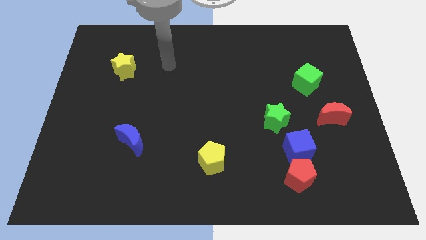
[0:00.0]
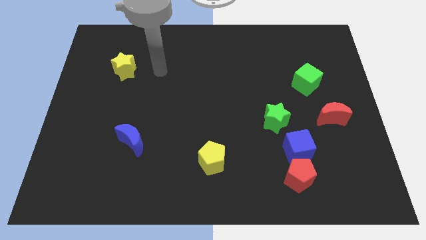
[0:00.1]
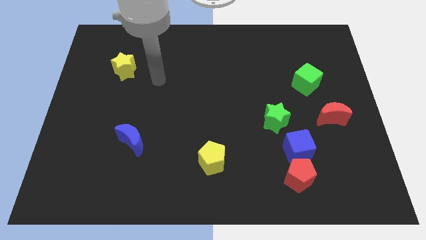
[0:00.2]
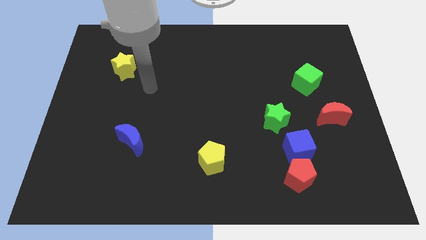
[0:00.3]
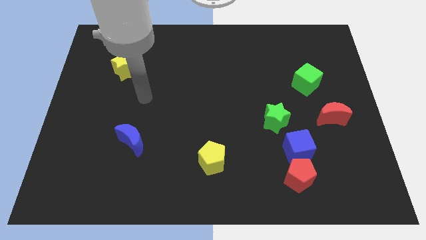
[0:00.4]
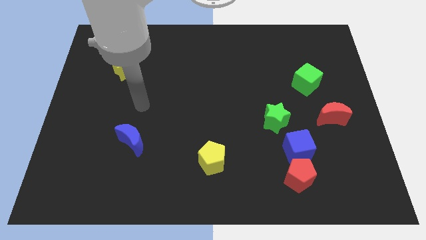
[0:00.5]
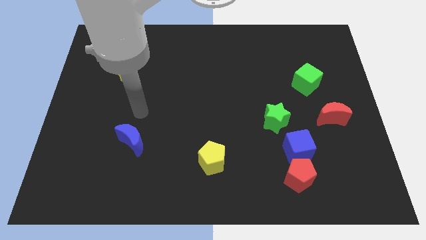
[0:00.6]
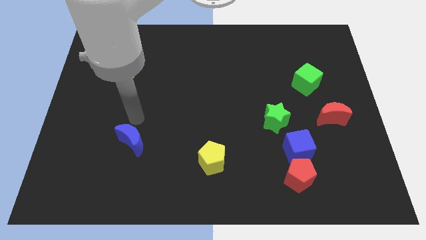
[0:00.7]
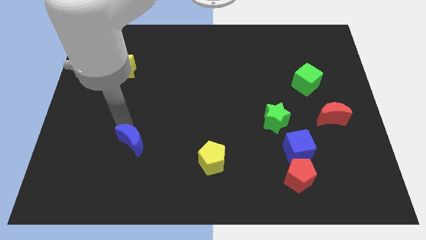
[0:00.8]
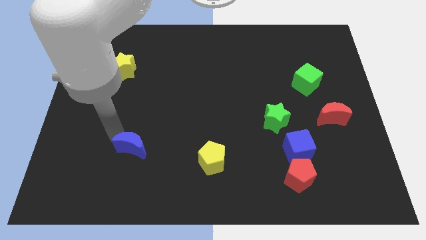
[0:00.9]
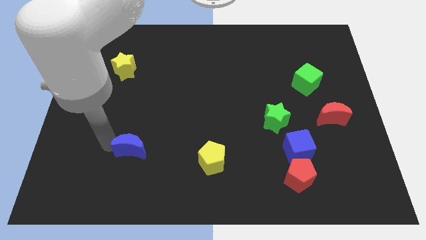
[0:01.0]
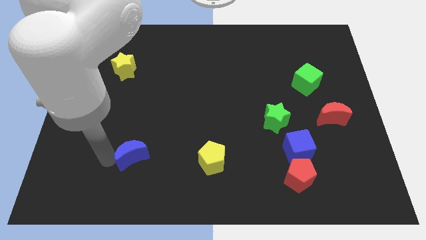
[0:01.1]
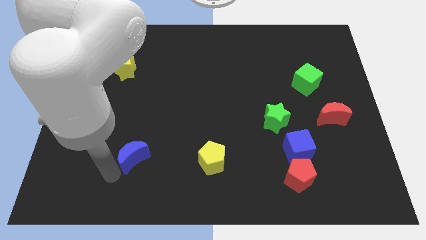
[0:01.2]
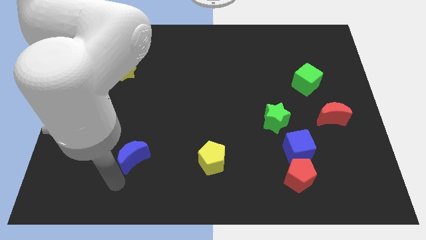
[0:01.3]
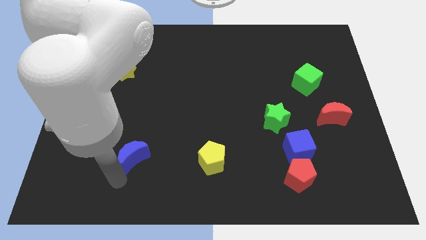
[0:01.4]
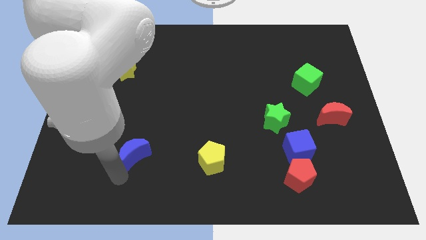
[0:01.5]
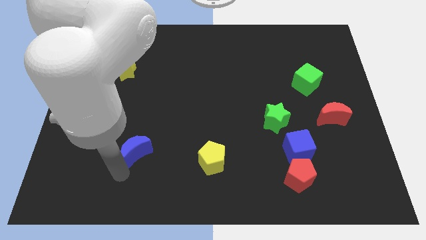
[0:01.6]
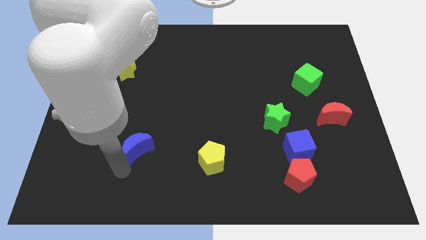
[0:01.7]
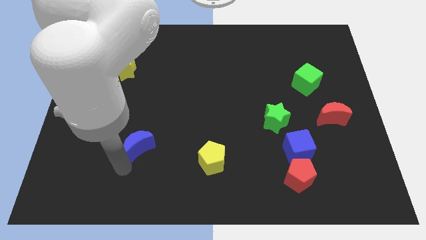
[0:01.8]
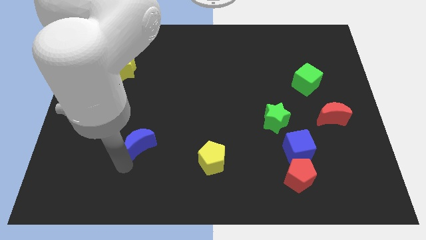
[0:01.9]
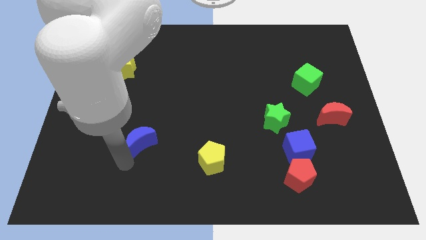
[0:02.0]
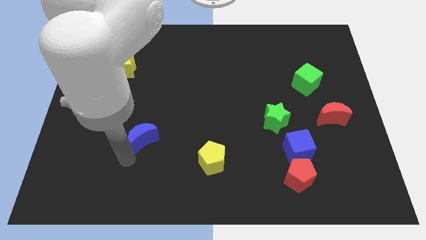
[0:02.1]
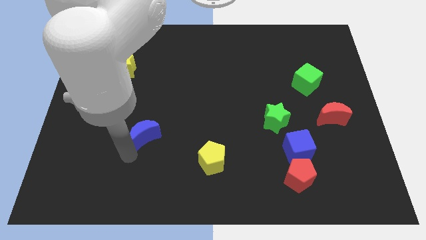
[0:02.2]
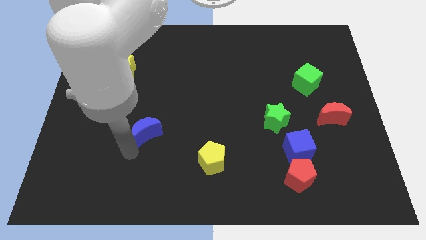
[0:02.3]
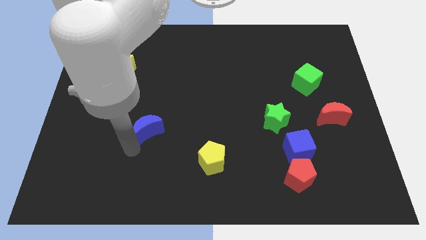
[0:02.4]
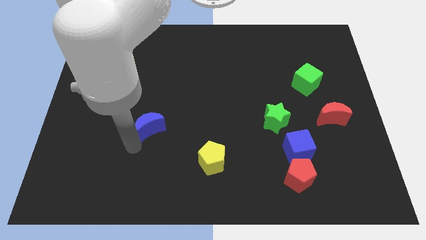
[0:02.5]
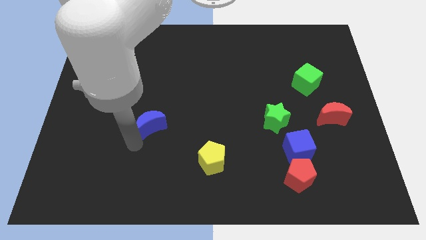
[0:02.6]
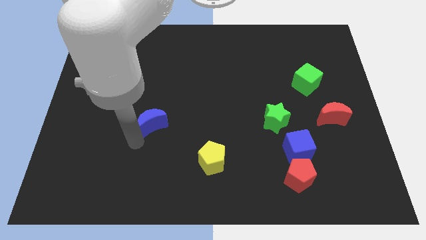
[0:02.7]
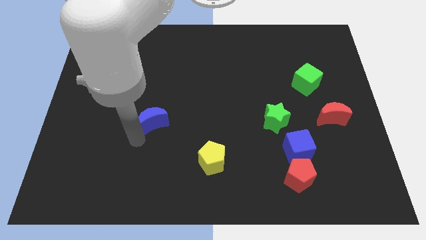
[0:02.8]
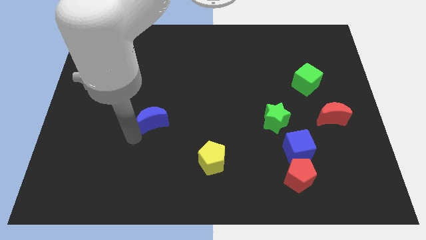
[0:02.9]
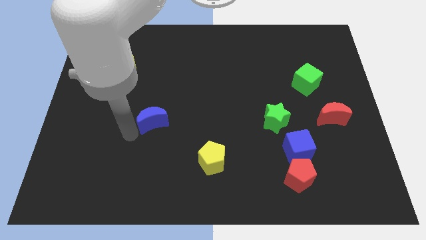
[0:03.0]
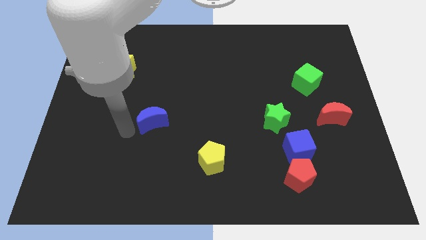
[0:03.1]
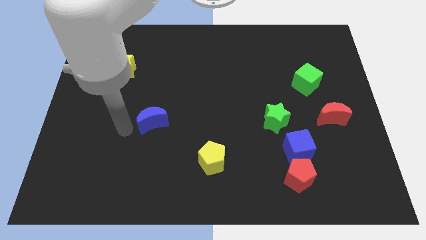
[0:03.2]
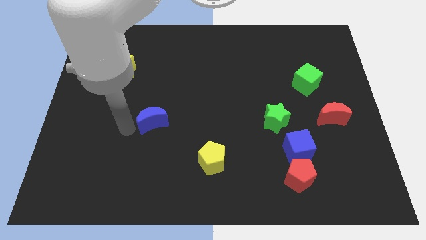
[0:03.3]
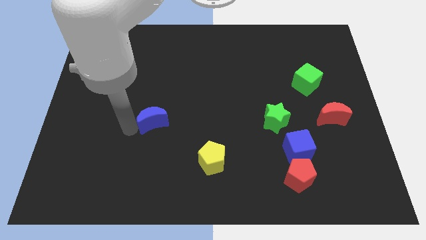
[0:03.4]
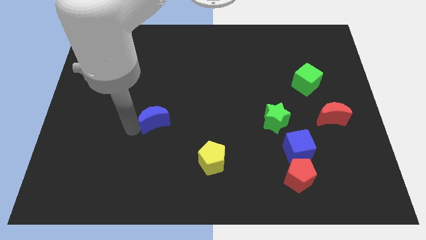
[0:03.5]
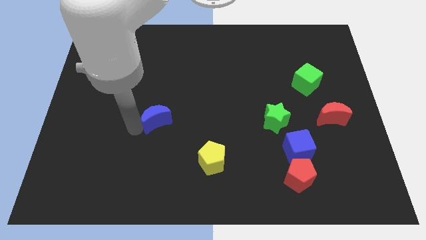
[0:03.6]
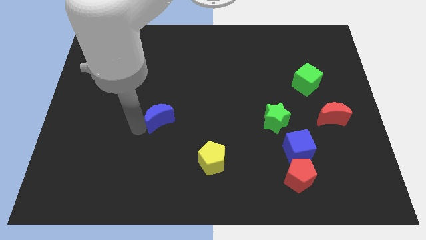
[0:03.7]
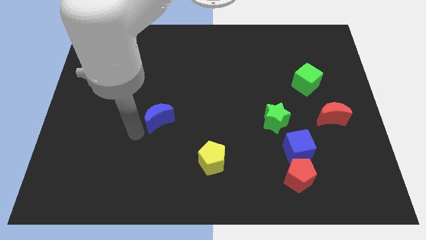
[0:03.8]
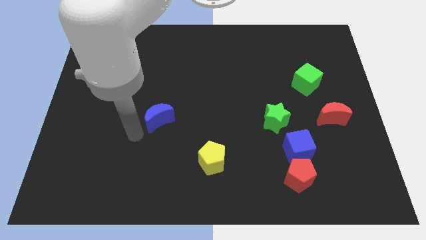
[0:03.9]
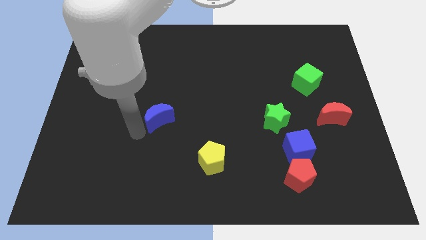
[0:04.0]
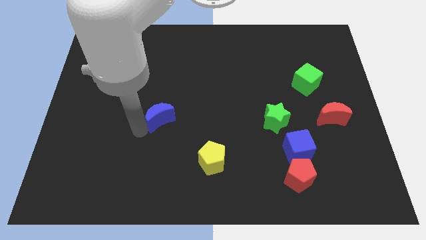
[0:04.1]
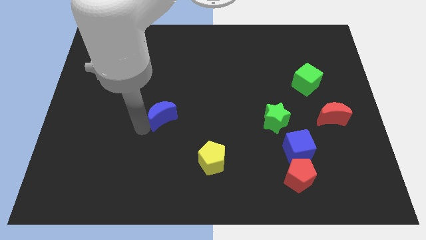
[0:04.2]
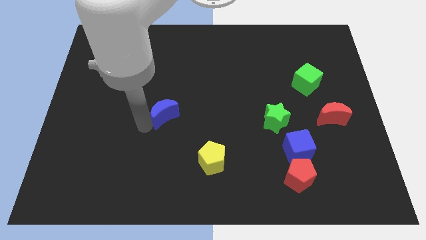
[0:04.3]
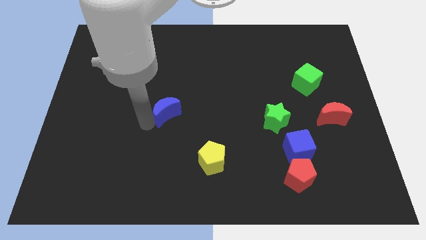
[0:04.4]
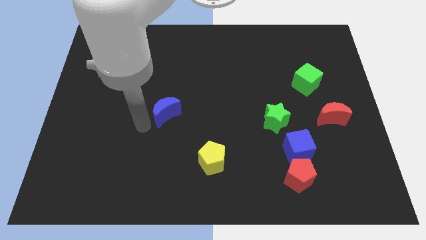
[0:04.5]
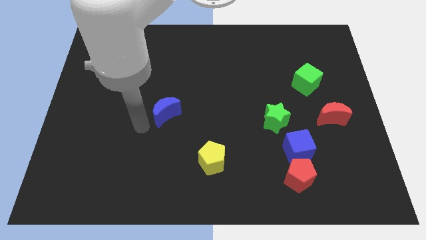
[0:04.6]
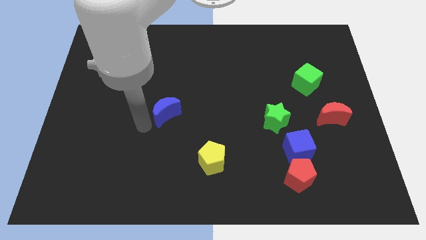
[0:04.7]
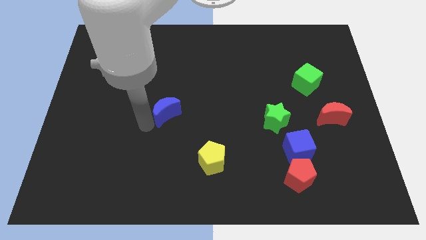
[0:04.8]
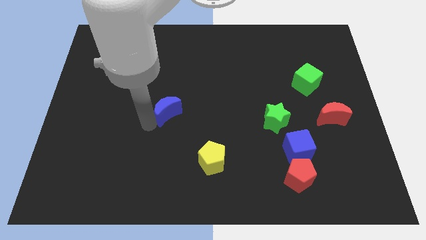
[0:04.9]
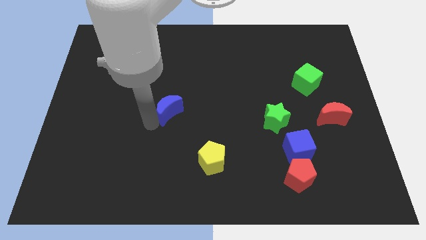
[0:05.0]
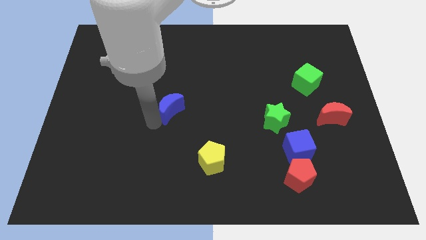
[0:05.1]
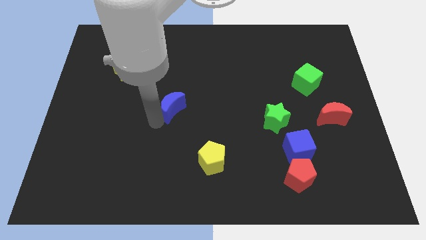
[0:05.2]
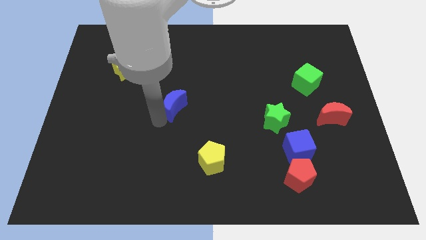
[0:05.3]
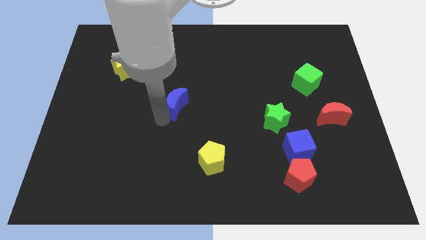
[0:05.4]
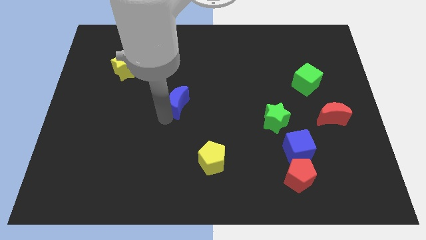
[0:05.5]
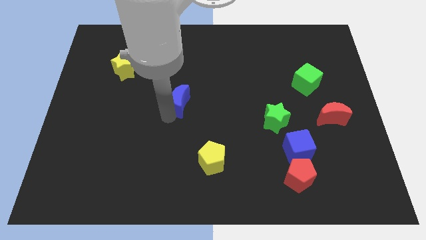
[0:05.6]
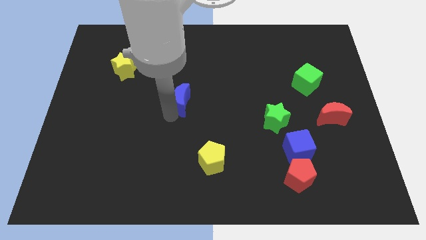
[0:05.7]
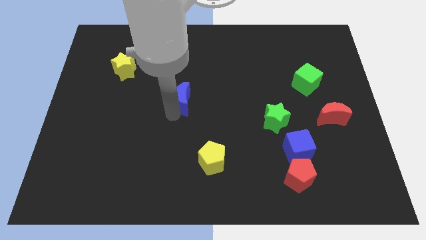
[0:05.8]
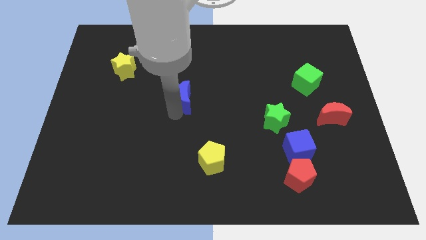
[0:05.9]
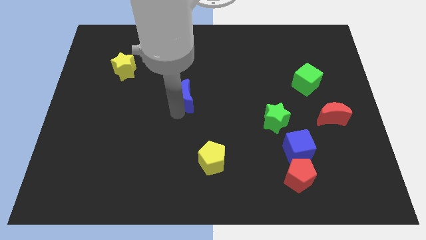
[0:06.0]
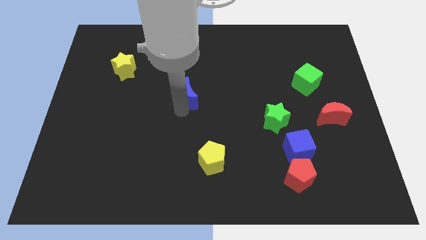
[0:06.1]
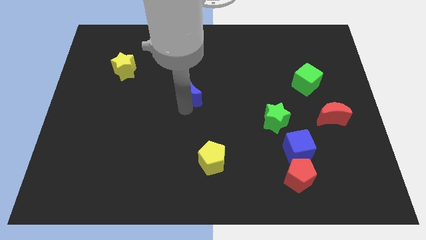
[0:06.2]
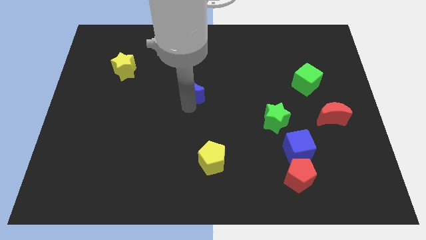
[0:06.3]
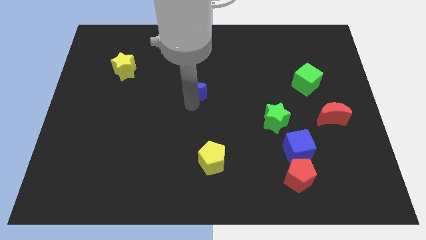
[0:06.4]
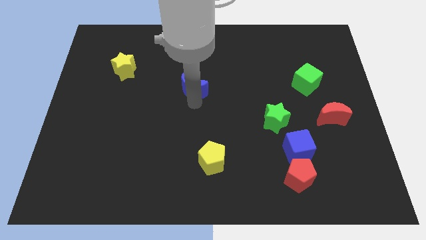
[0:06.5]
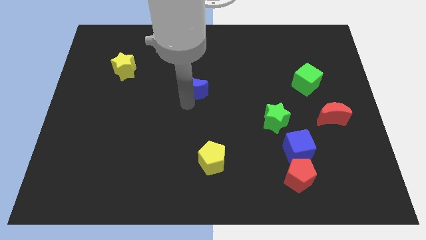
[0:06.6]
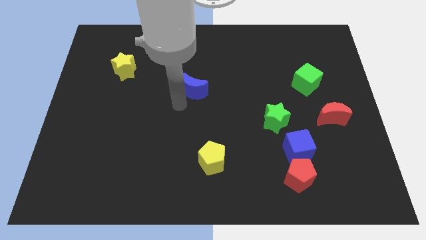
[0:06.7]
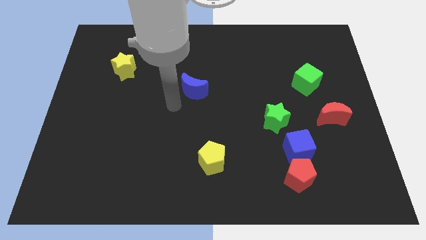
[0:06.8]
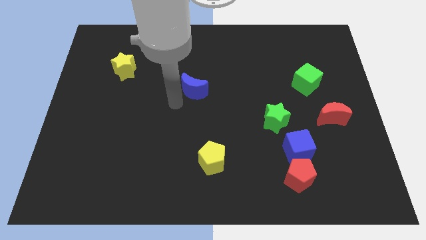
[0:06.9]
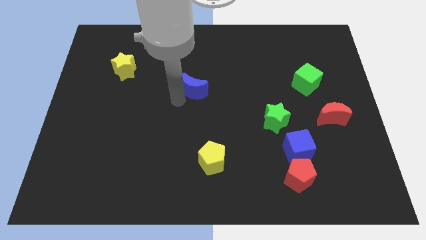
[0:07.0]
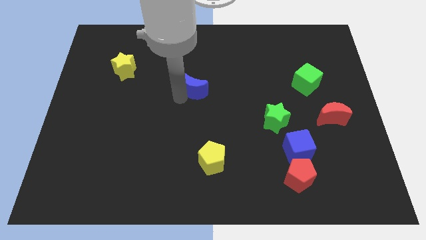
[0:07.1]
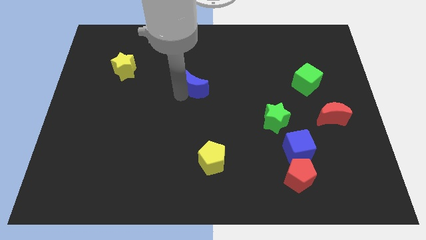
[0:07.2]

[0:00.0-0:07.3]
push the blue moon upwards and then to the right
